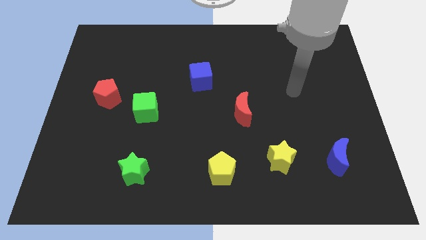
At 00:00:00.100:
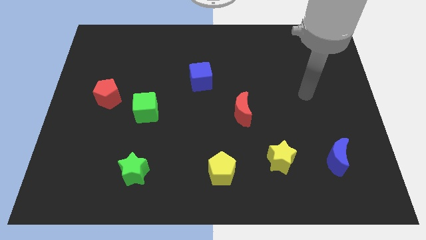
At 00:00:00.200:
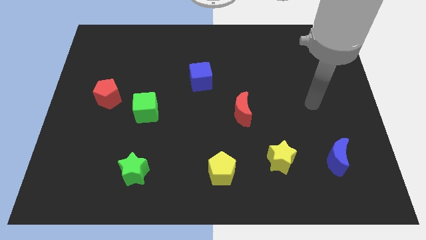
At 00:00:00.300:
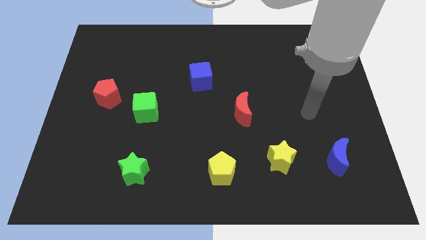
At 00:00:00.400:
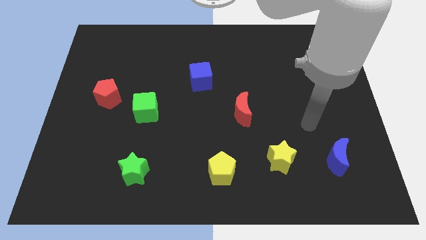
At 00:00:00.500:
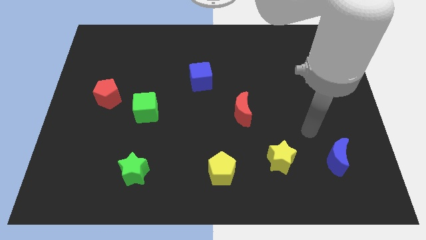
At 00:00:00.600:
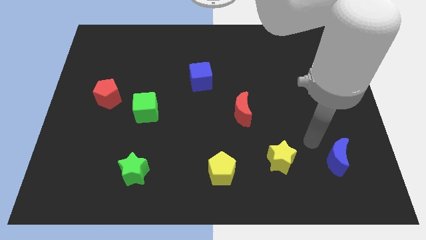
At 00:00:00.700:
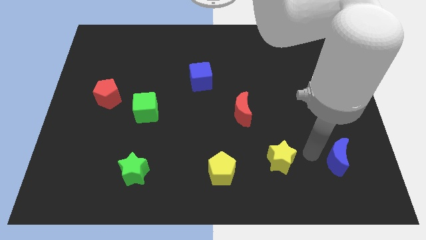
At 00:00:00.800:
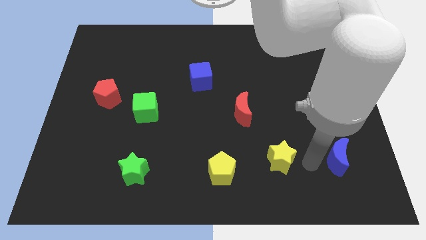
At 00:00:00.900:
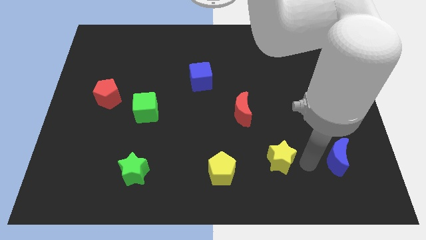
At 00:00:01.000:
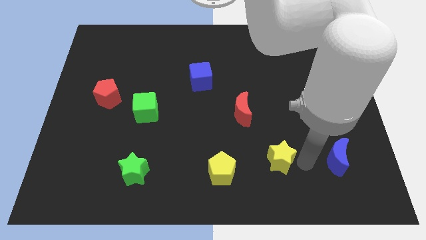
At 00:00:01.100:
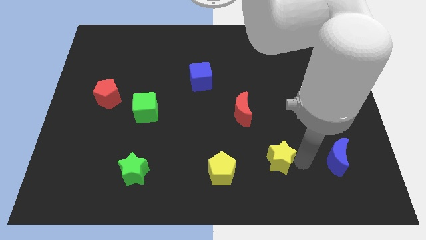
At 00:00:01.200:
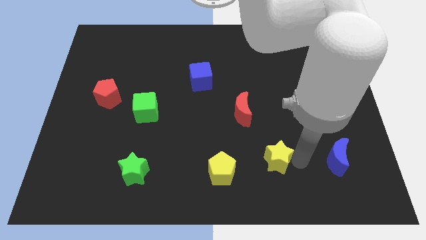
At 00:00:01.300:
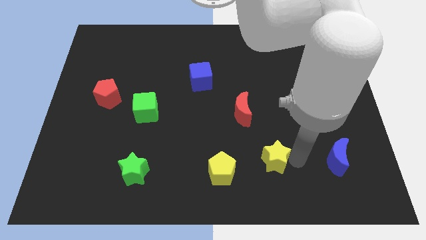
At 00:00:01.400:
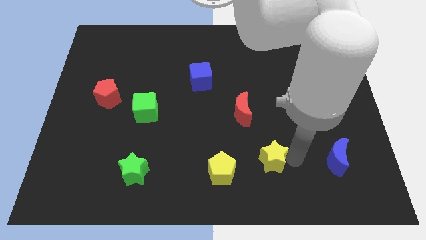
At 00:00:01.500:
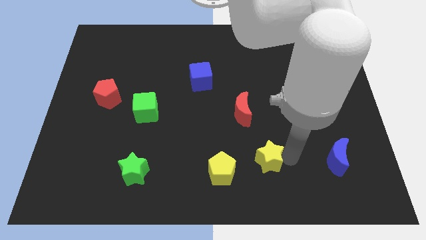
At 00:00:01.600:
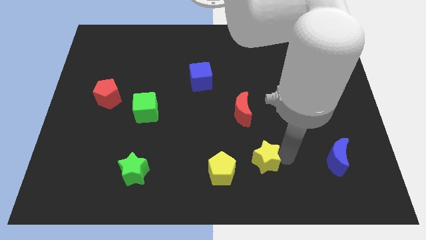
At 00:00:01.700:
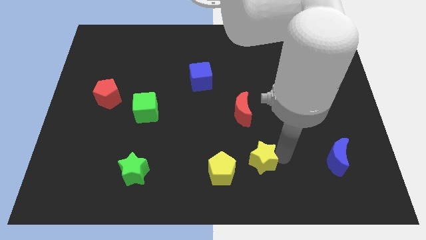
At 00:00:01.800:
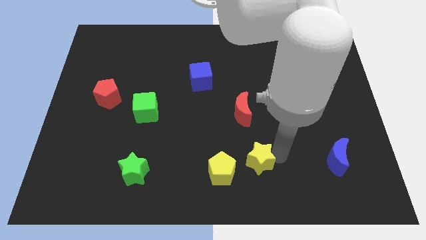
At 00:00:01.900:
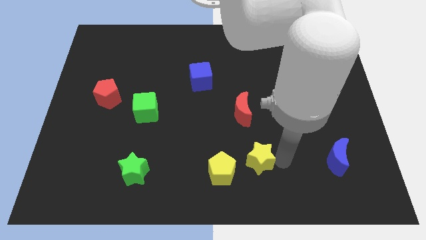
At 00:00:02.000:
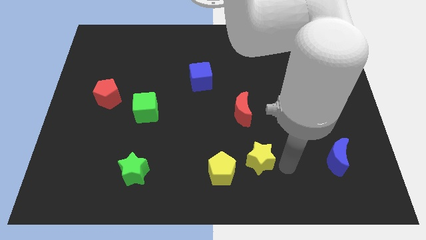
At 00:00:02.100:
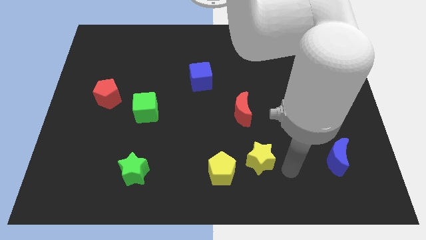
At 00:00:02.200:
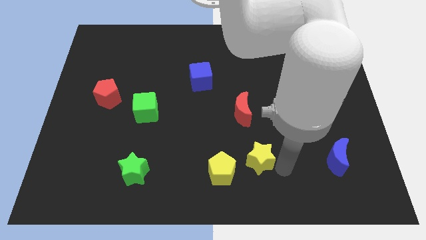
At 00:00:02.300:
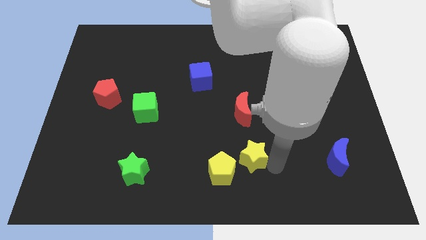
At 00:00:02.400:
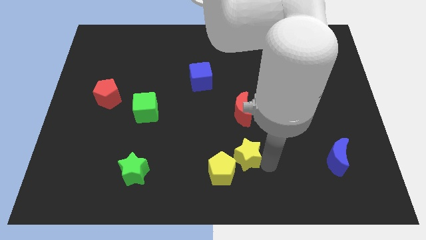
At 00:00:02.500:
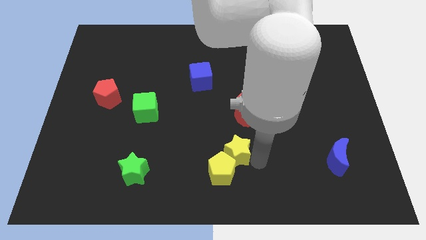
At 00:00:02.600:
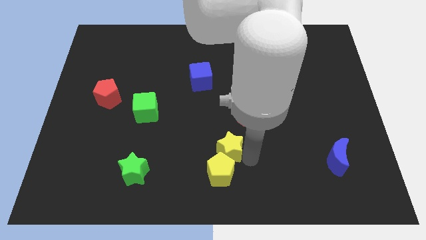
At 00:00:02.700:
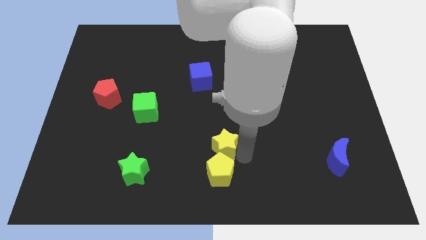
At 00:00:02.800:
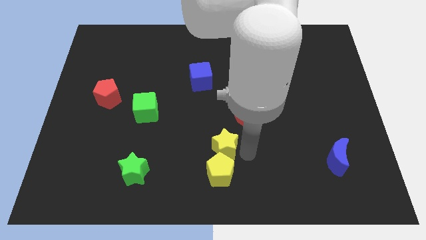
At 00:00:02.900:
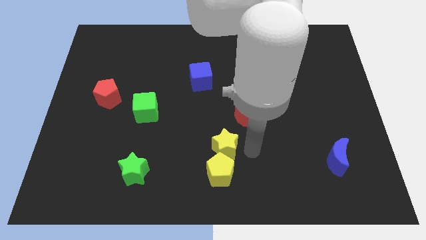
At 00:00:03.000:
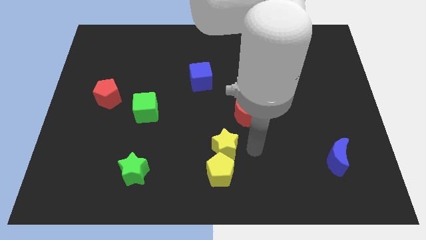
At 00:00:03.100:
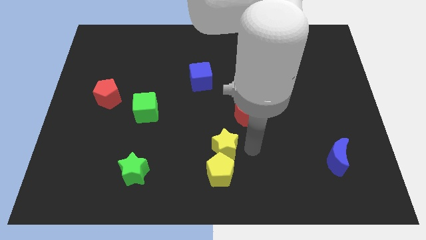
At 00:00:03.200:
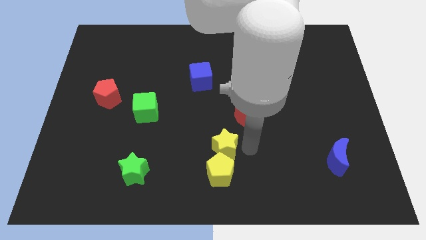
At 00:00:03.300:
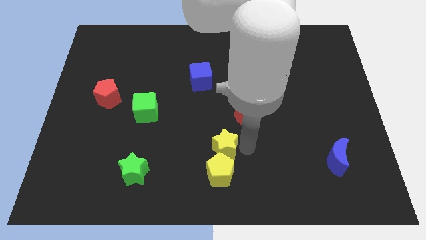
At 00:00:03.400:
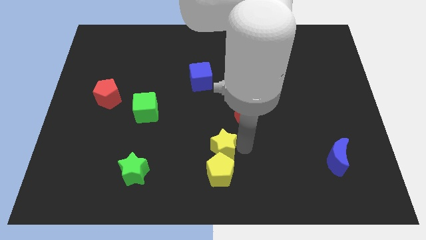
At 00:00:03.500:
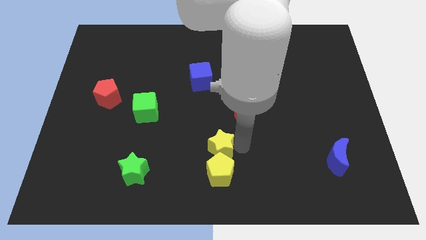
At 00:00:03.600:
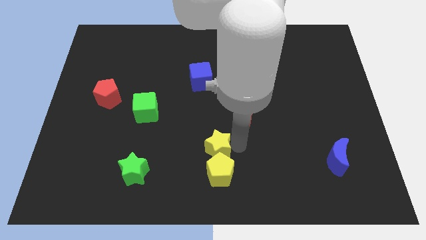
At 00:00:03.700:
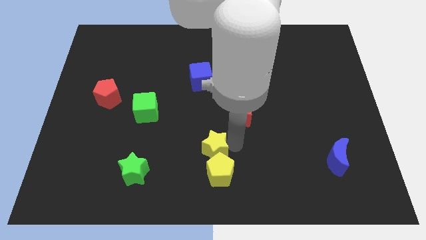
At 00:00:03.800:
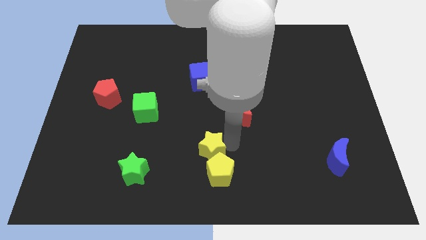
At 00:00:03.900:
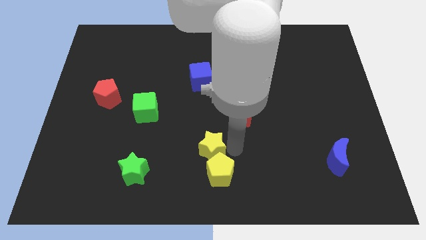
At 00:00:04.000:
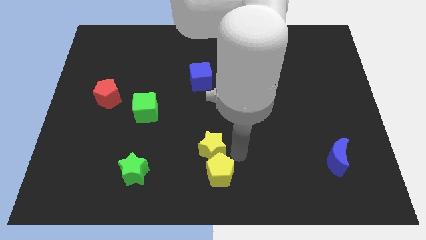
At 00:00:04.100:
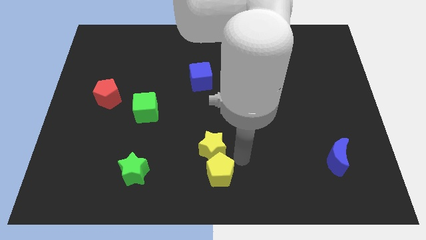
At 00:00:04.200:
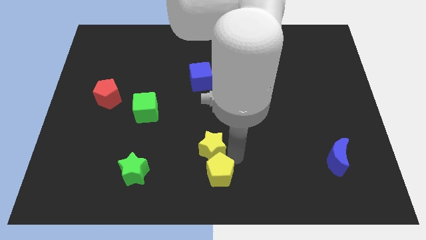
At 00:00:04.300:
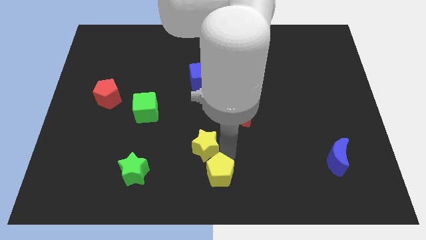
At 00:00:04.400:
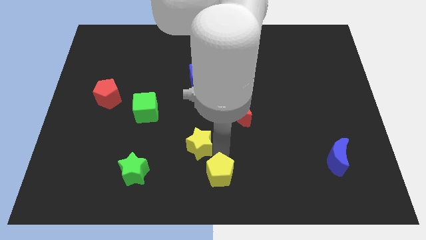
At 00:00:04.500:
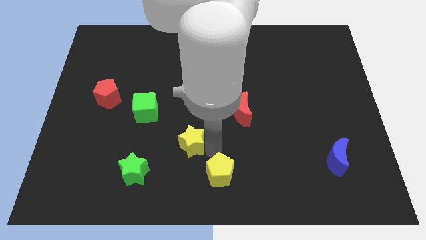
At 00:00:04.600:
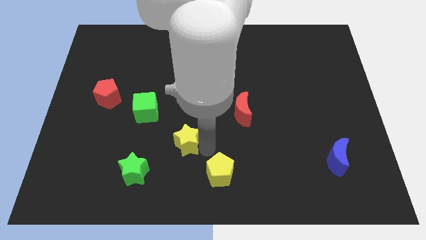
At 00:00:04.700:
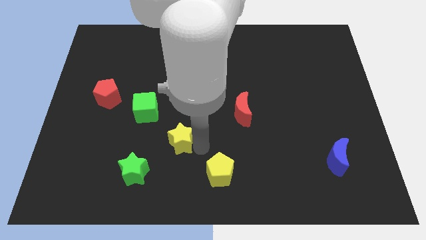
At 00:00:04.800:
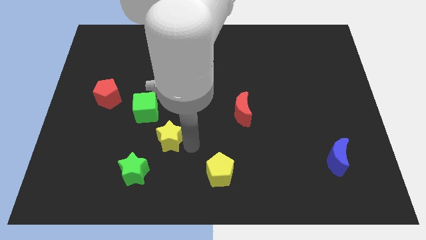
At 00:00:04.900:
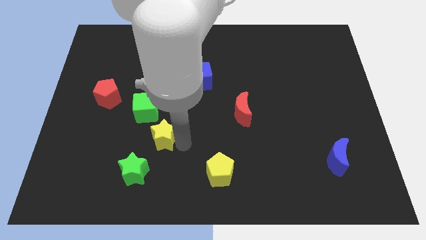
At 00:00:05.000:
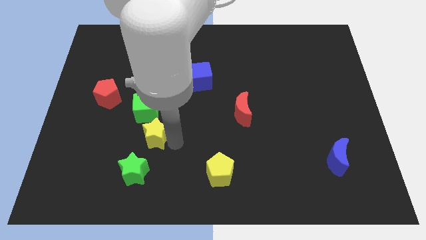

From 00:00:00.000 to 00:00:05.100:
slide the yellow star to the top side of the green star

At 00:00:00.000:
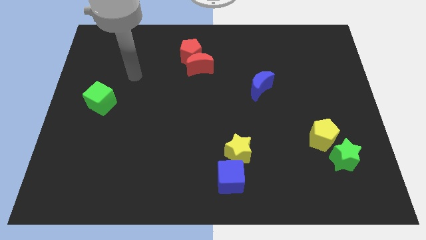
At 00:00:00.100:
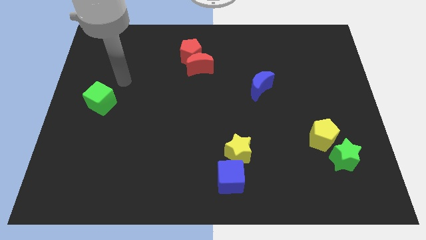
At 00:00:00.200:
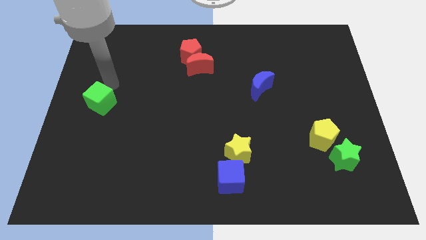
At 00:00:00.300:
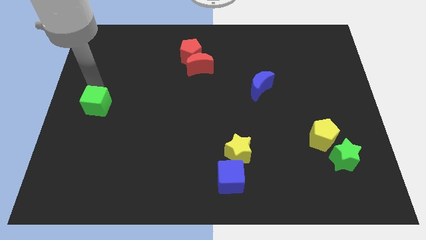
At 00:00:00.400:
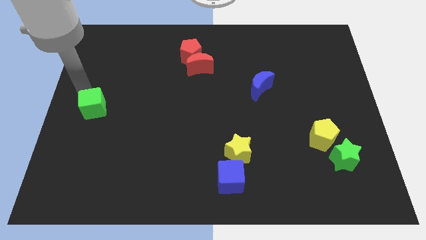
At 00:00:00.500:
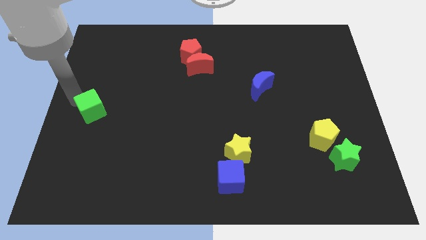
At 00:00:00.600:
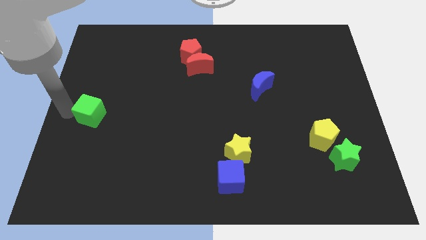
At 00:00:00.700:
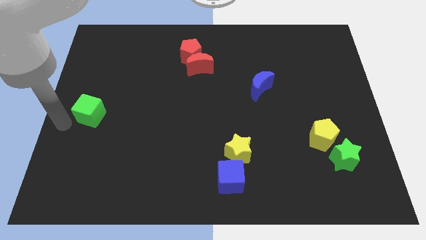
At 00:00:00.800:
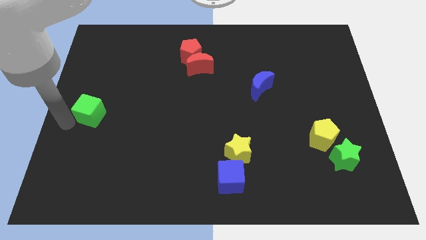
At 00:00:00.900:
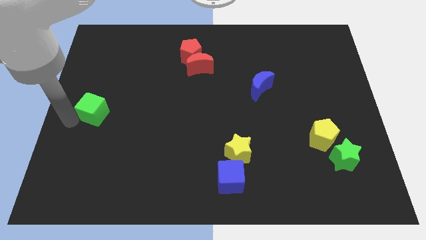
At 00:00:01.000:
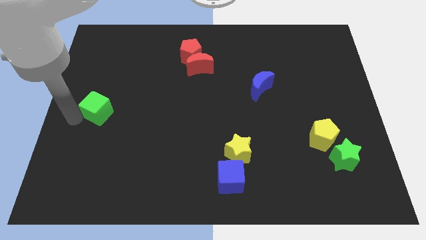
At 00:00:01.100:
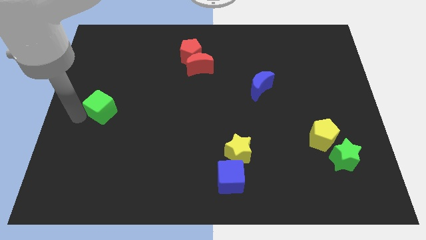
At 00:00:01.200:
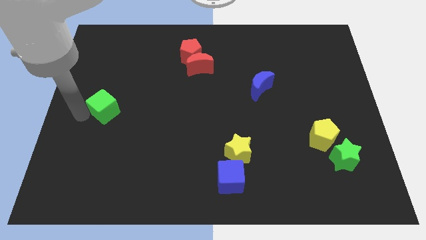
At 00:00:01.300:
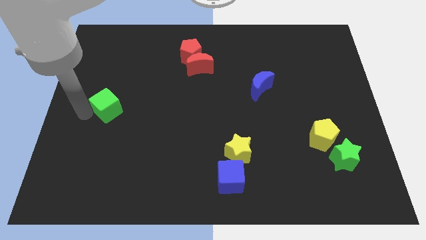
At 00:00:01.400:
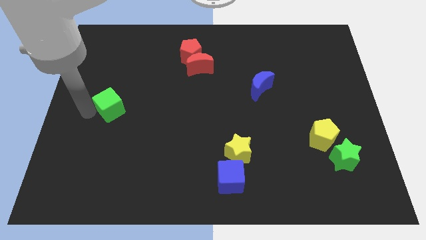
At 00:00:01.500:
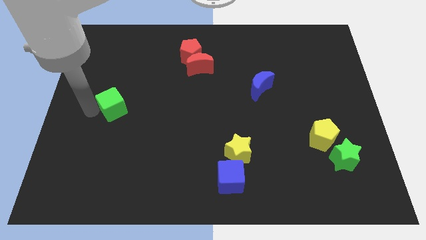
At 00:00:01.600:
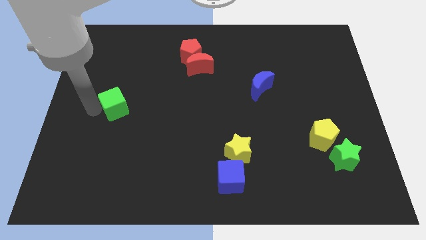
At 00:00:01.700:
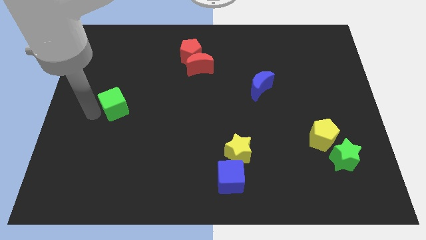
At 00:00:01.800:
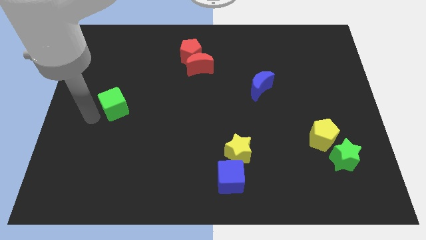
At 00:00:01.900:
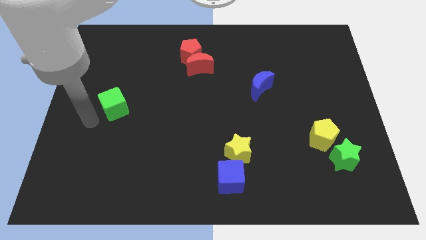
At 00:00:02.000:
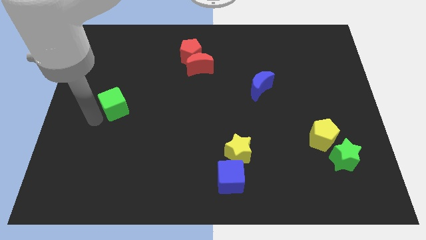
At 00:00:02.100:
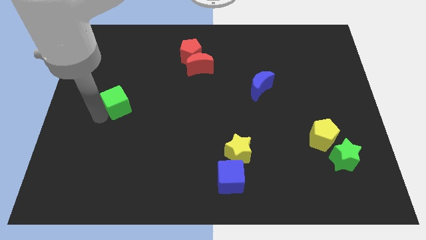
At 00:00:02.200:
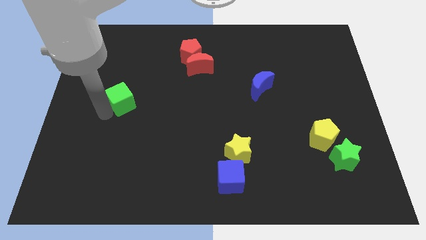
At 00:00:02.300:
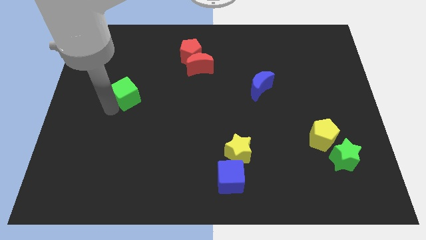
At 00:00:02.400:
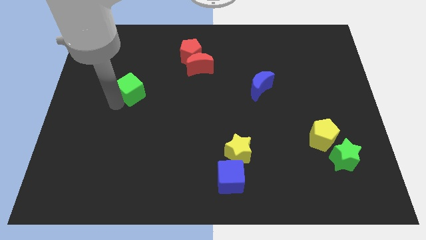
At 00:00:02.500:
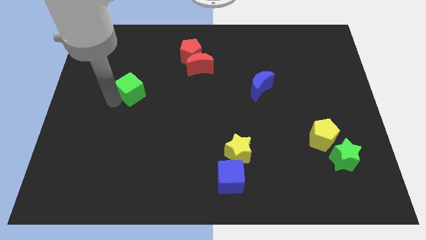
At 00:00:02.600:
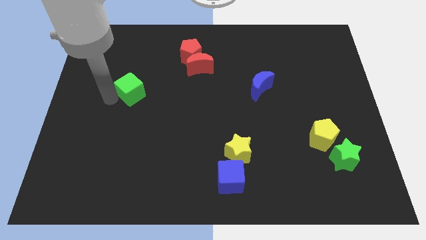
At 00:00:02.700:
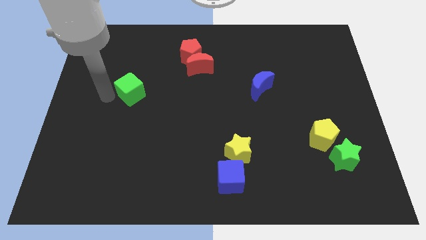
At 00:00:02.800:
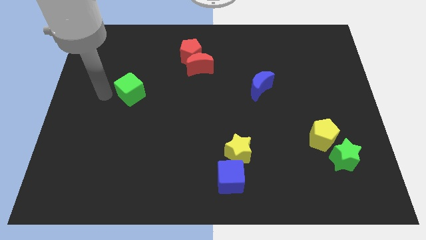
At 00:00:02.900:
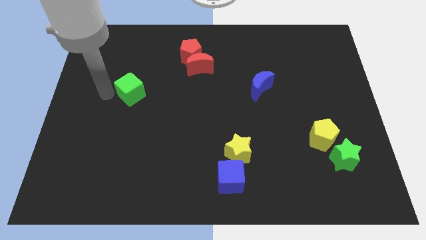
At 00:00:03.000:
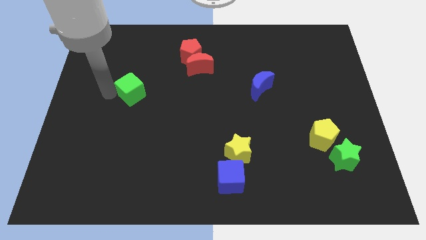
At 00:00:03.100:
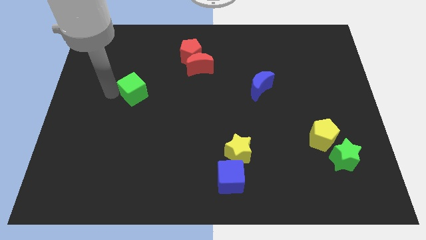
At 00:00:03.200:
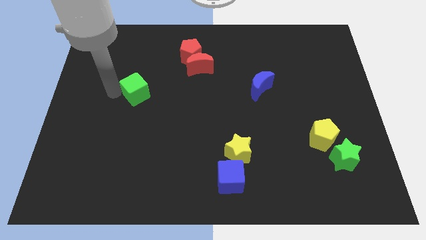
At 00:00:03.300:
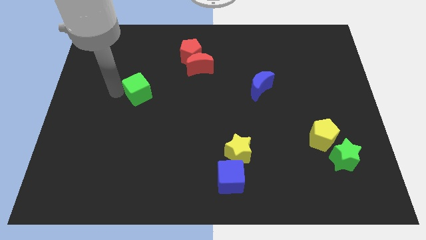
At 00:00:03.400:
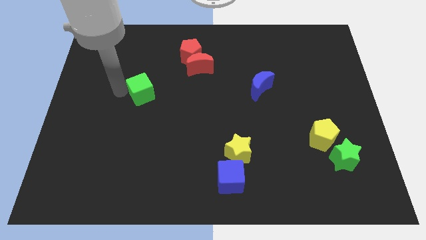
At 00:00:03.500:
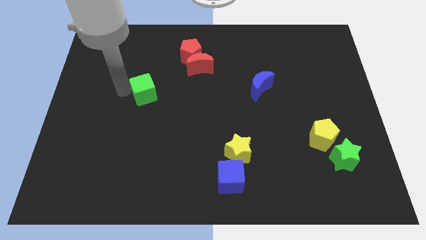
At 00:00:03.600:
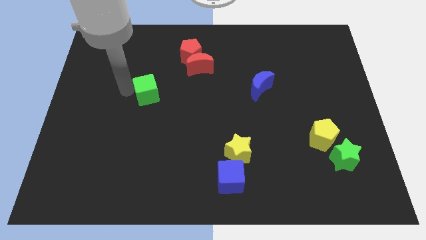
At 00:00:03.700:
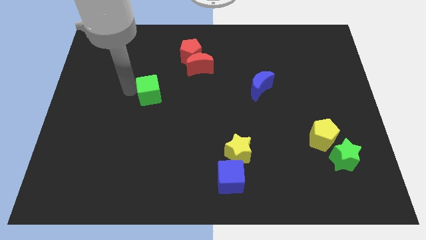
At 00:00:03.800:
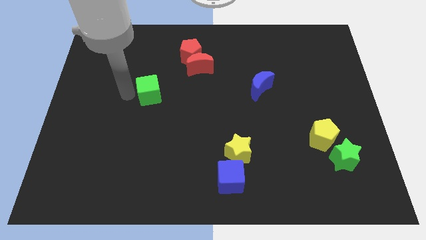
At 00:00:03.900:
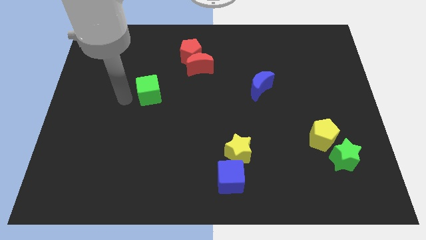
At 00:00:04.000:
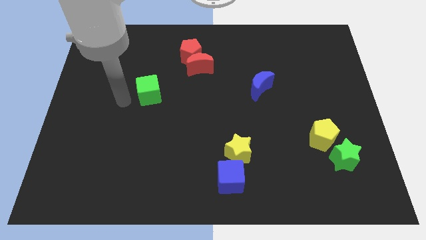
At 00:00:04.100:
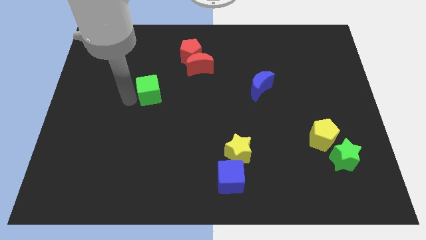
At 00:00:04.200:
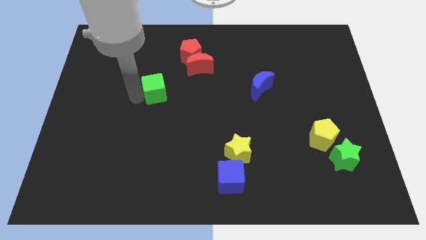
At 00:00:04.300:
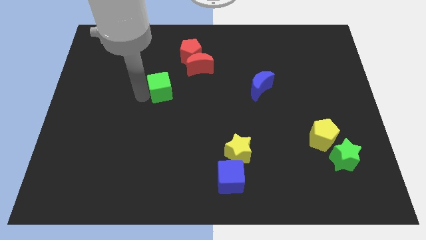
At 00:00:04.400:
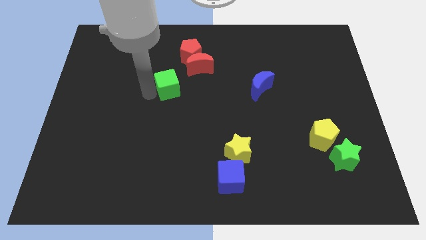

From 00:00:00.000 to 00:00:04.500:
move the green cube below the red pentagon
